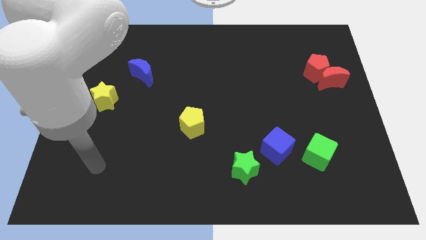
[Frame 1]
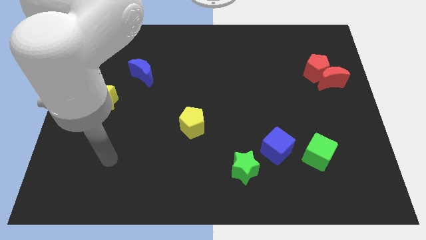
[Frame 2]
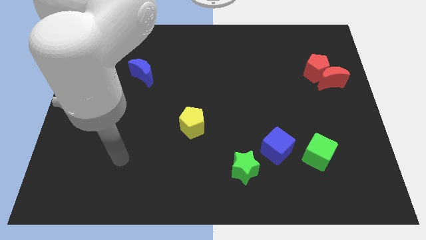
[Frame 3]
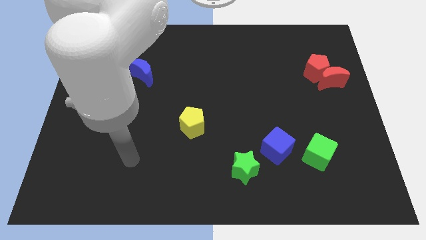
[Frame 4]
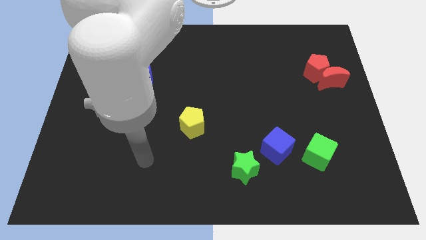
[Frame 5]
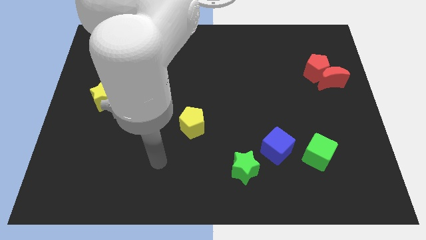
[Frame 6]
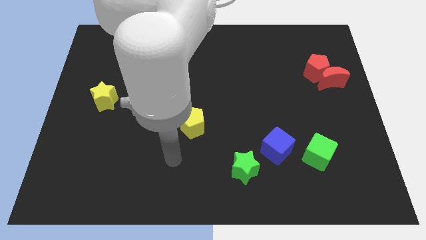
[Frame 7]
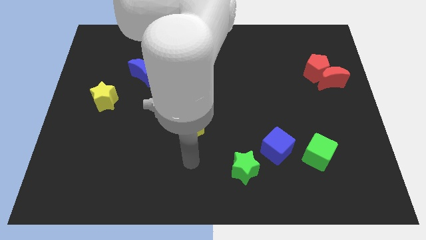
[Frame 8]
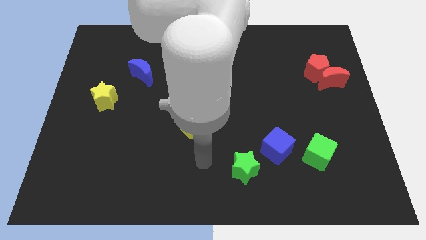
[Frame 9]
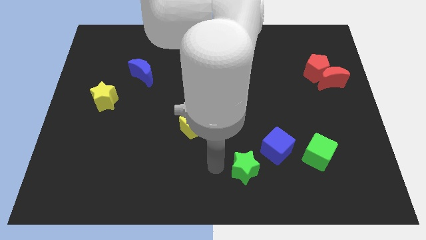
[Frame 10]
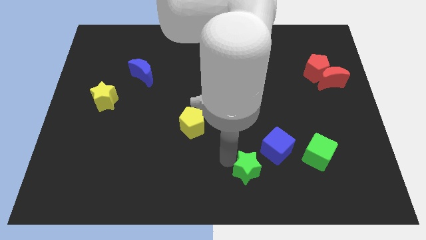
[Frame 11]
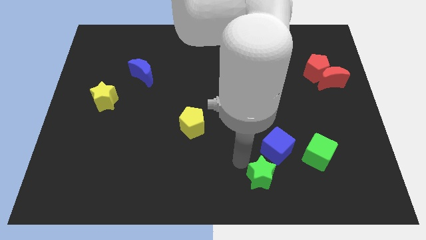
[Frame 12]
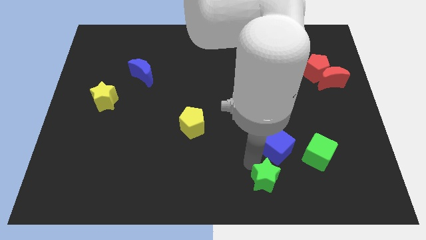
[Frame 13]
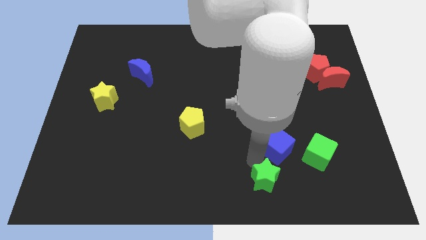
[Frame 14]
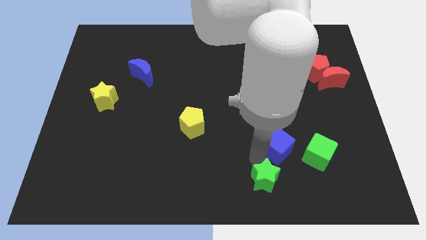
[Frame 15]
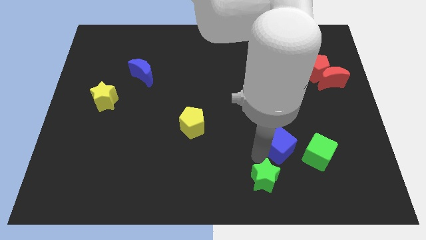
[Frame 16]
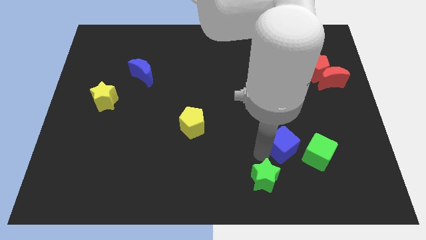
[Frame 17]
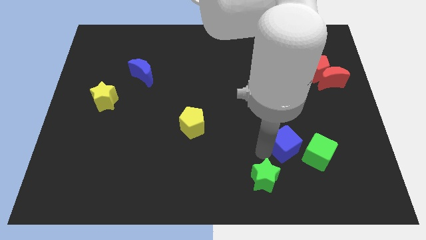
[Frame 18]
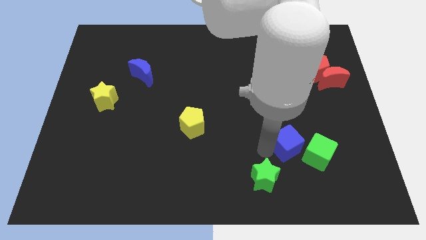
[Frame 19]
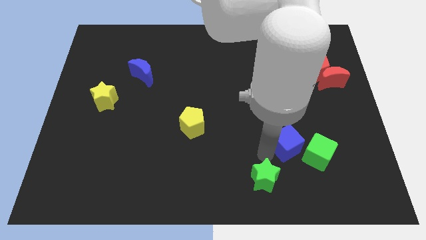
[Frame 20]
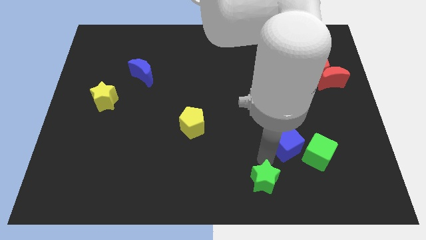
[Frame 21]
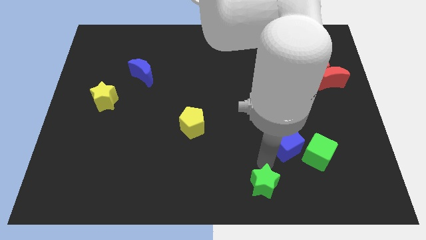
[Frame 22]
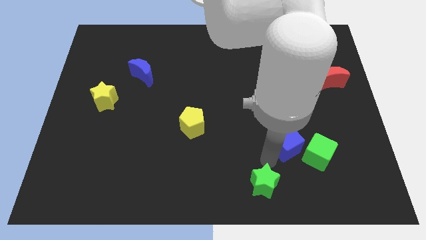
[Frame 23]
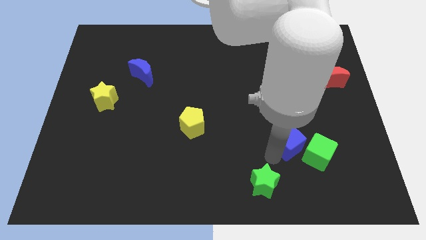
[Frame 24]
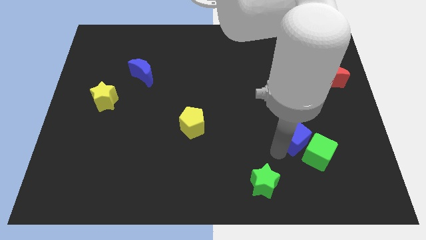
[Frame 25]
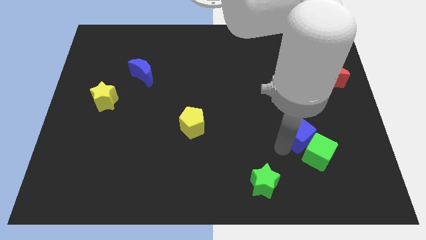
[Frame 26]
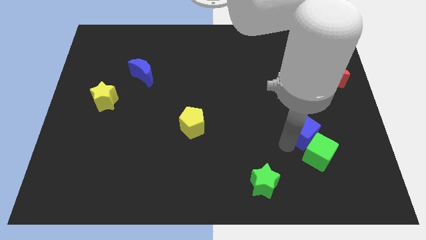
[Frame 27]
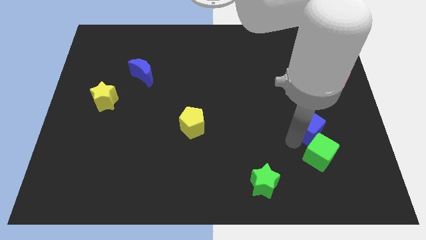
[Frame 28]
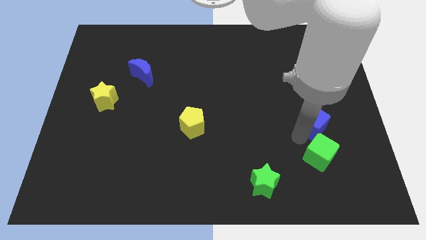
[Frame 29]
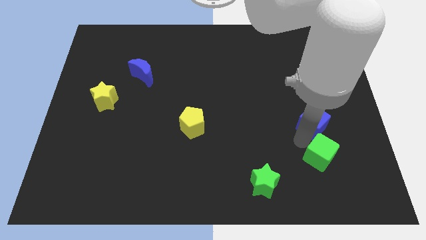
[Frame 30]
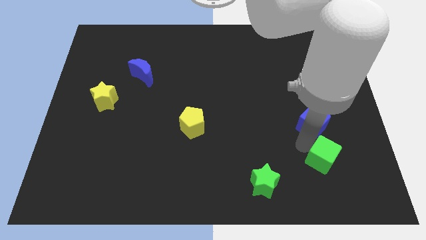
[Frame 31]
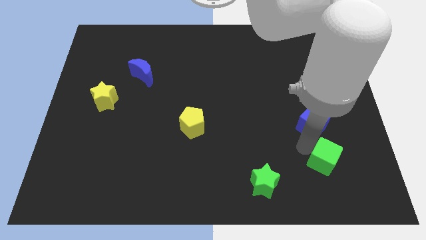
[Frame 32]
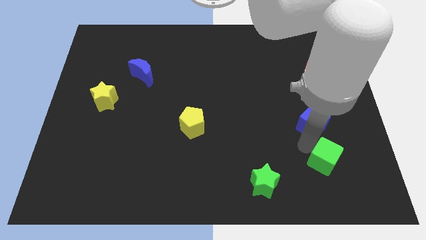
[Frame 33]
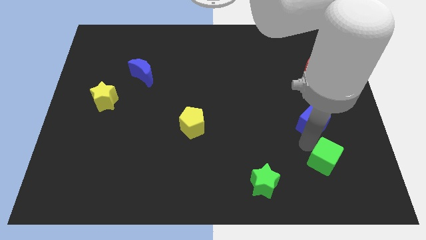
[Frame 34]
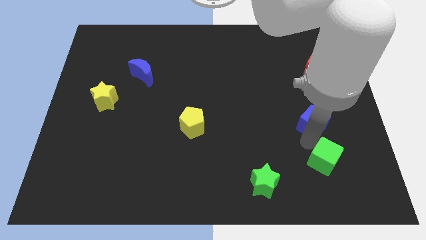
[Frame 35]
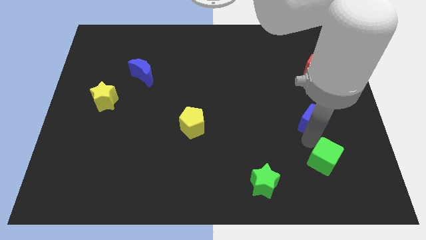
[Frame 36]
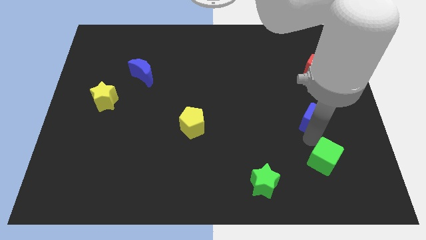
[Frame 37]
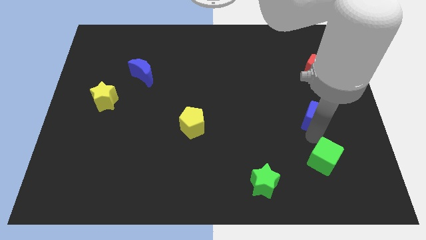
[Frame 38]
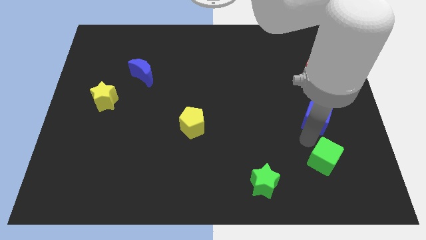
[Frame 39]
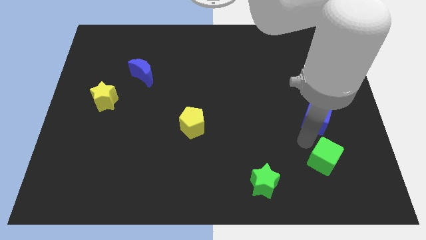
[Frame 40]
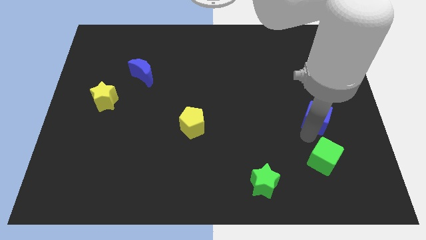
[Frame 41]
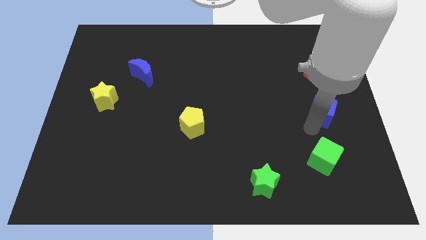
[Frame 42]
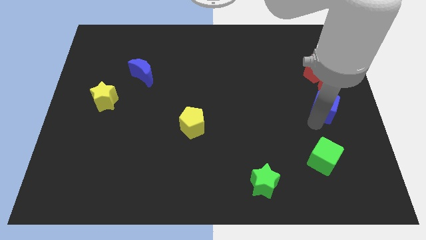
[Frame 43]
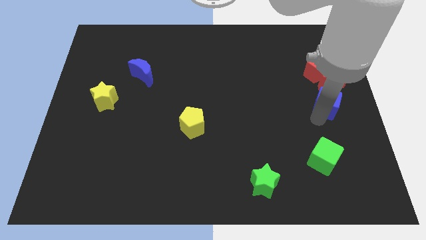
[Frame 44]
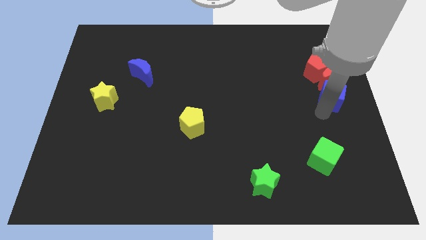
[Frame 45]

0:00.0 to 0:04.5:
slide the blue cube towards the red moon

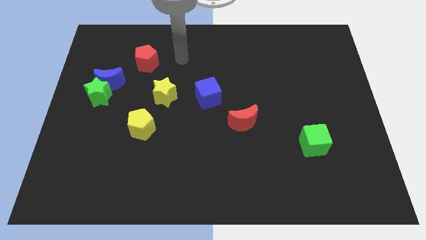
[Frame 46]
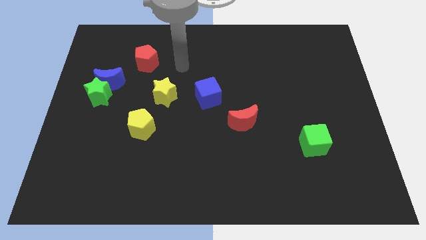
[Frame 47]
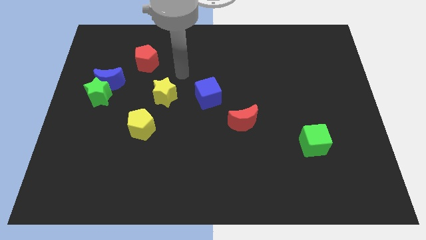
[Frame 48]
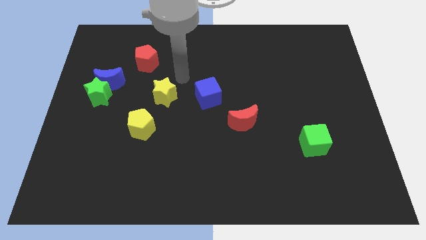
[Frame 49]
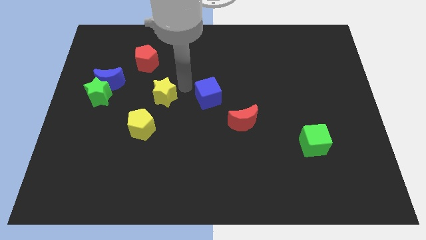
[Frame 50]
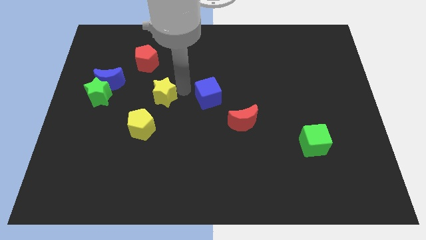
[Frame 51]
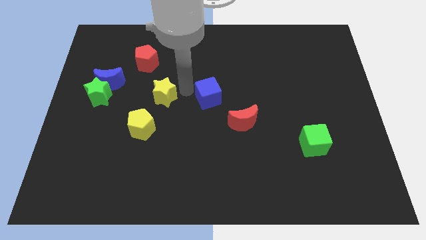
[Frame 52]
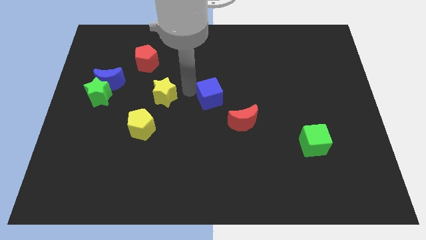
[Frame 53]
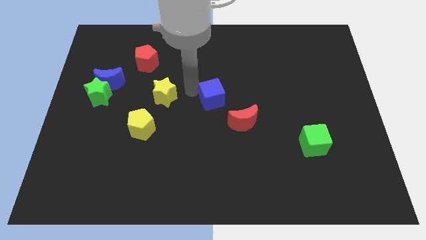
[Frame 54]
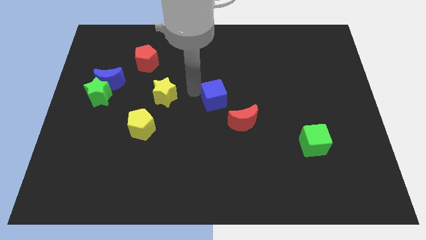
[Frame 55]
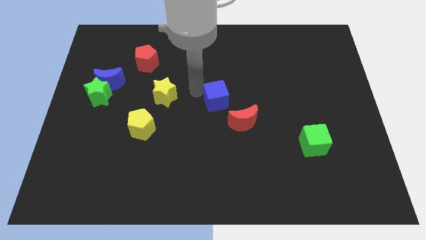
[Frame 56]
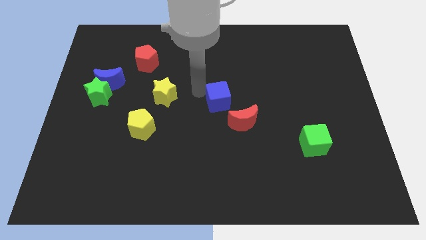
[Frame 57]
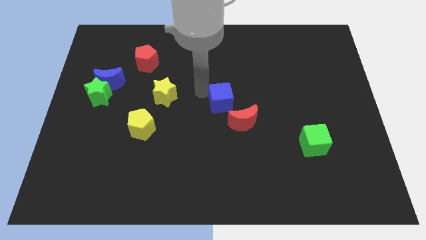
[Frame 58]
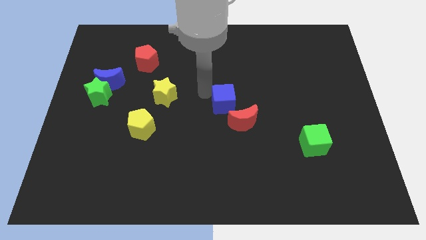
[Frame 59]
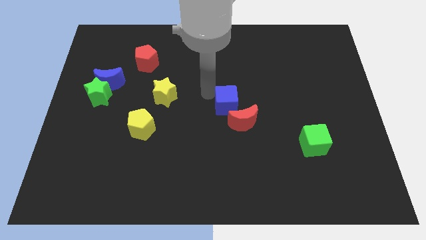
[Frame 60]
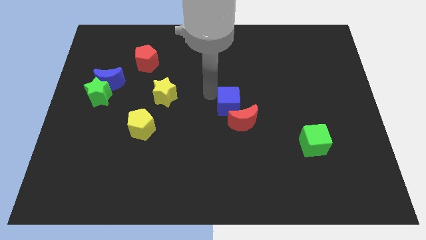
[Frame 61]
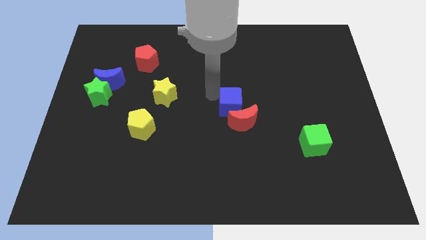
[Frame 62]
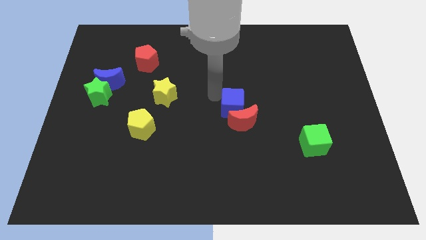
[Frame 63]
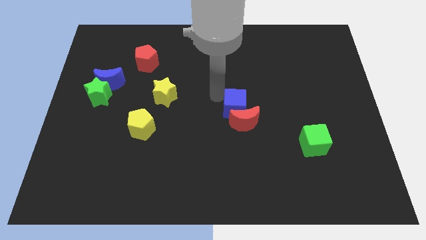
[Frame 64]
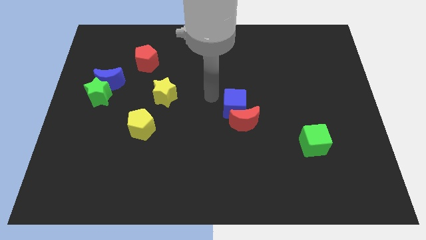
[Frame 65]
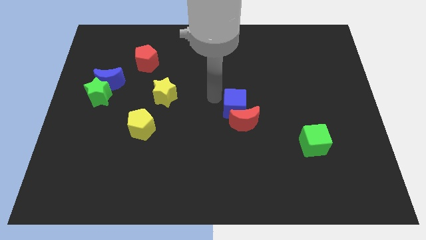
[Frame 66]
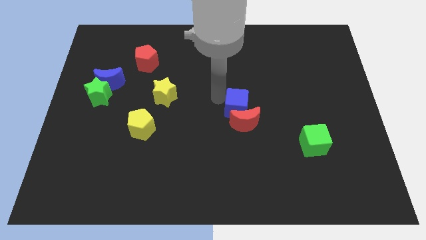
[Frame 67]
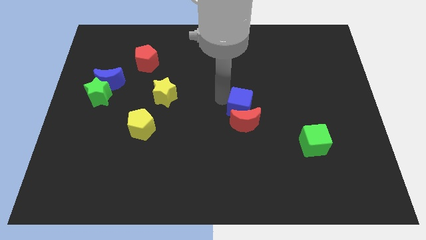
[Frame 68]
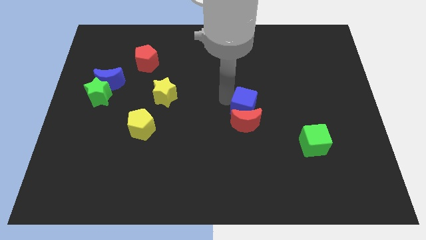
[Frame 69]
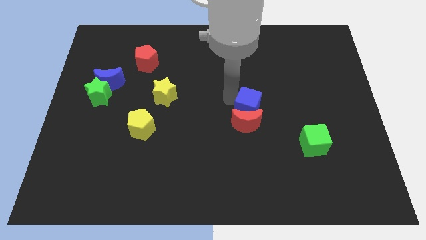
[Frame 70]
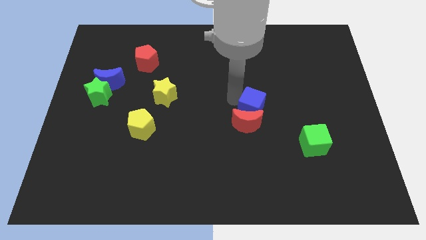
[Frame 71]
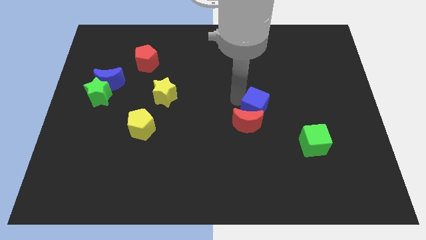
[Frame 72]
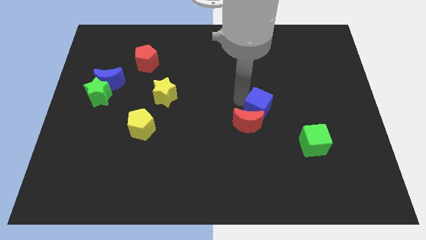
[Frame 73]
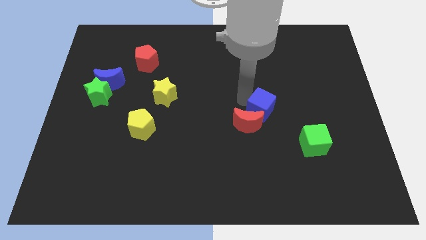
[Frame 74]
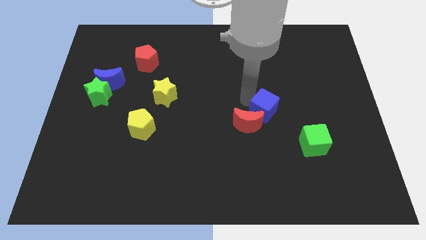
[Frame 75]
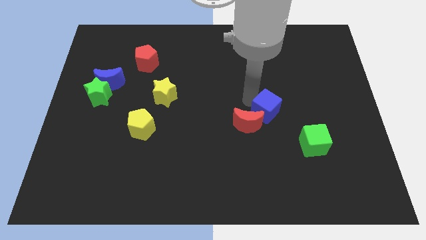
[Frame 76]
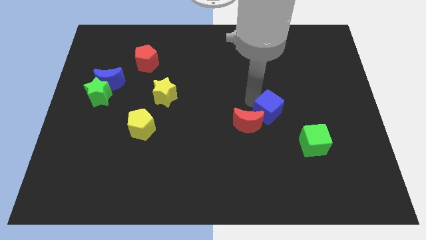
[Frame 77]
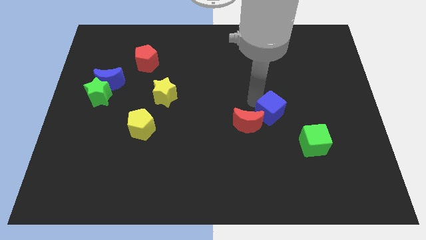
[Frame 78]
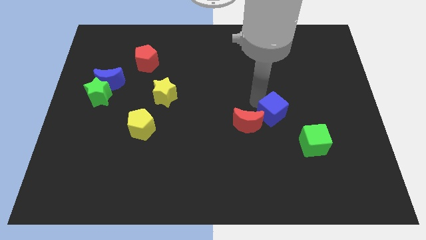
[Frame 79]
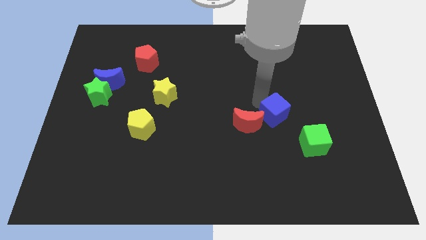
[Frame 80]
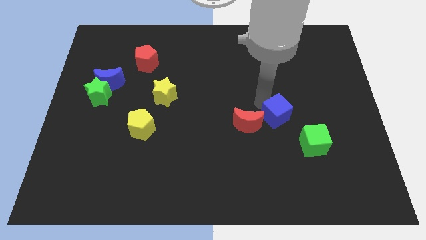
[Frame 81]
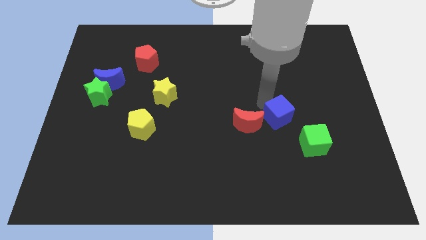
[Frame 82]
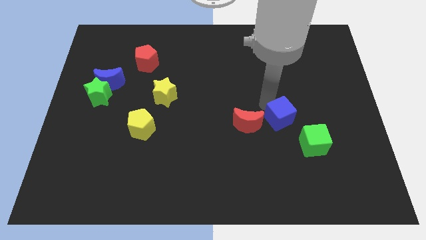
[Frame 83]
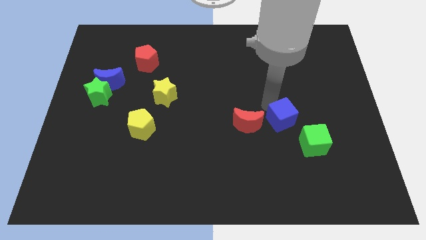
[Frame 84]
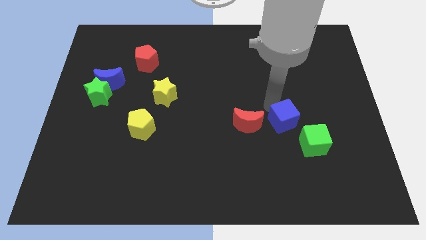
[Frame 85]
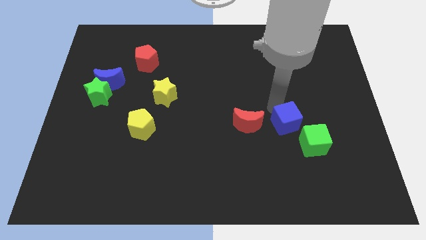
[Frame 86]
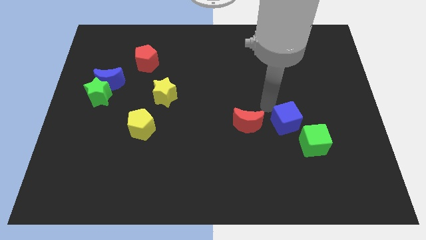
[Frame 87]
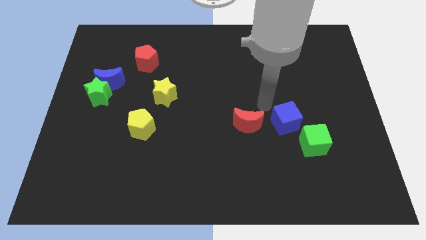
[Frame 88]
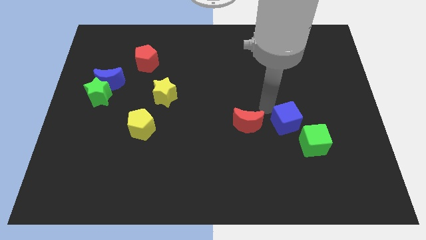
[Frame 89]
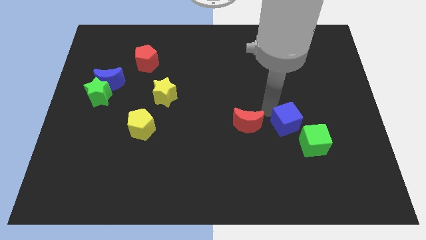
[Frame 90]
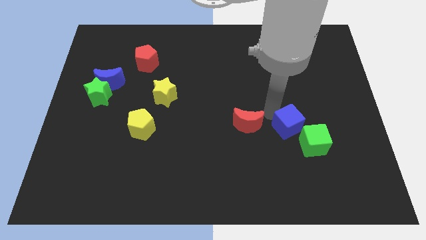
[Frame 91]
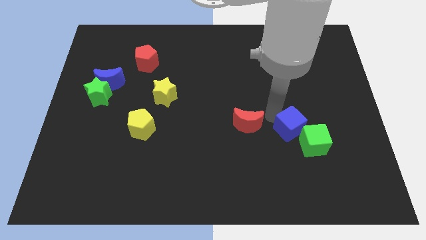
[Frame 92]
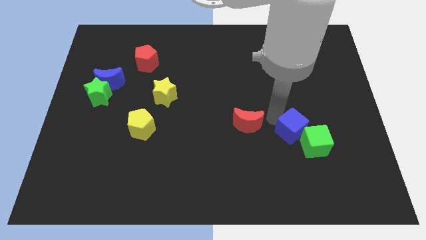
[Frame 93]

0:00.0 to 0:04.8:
move the blue cube next to the green cube
